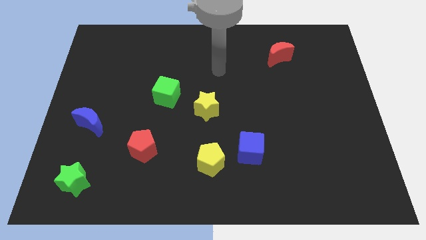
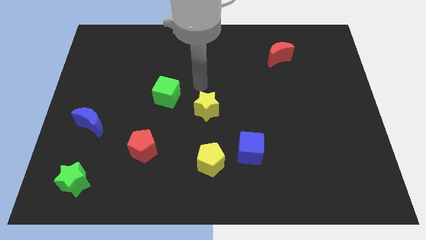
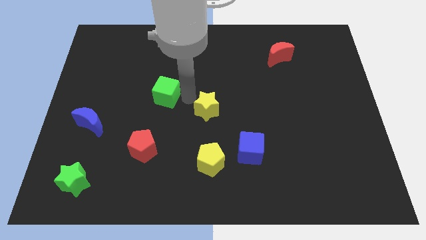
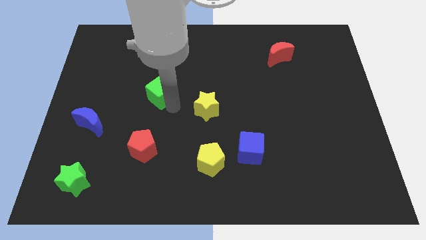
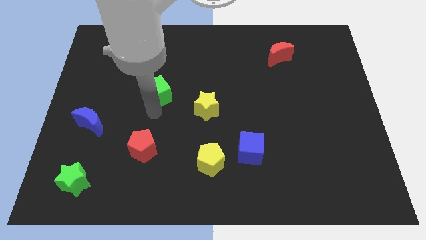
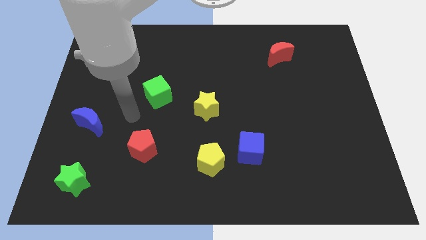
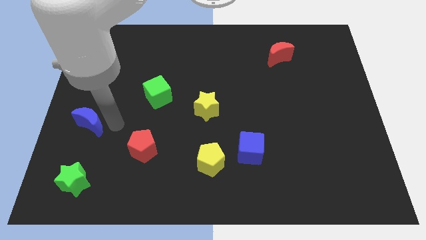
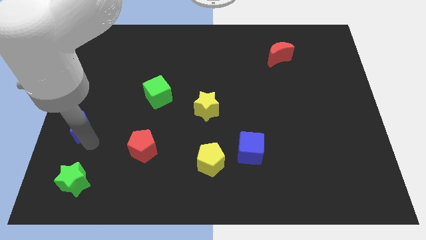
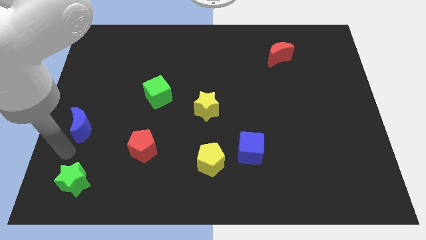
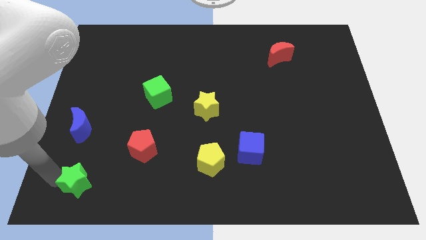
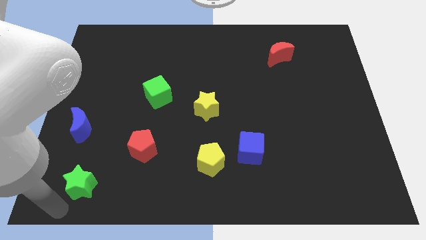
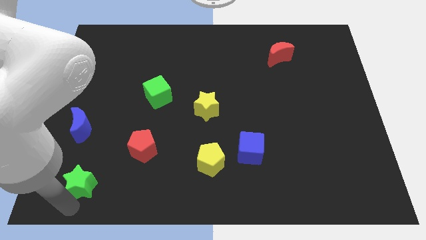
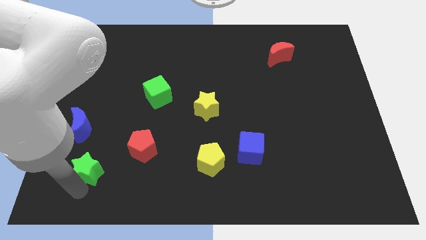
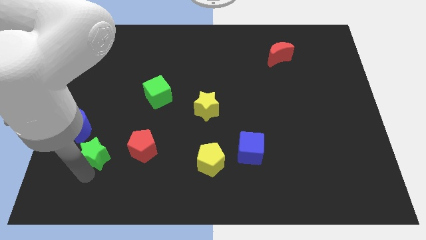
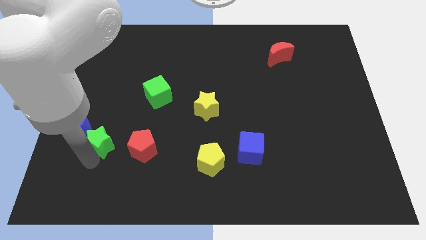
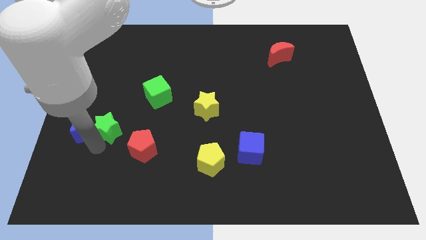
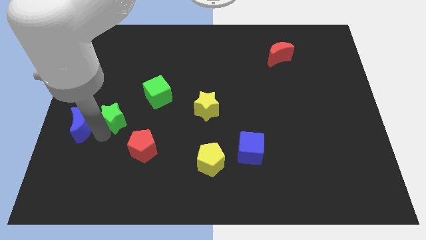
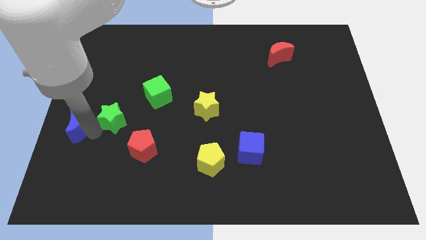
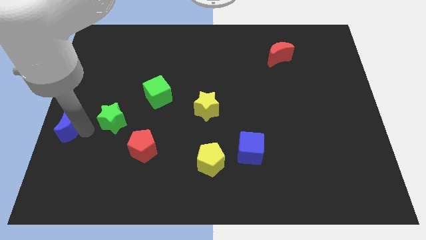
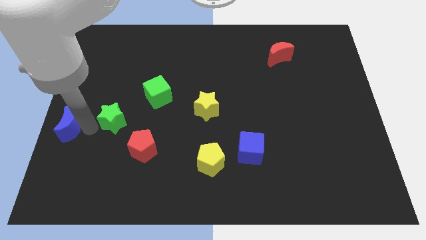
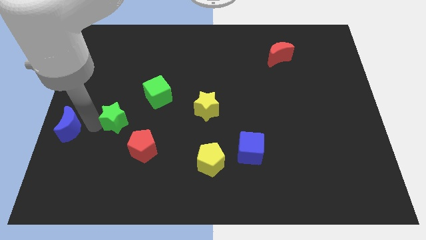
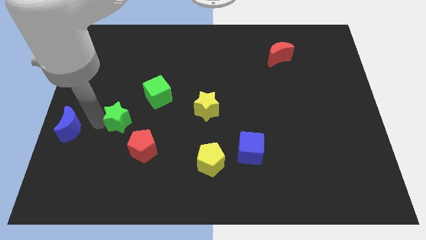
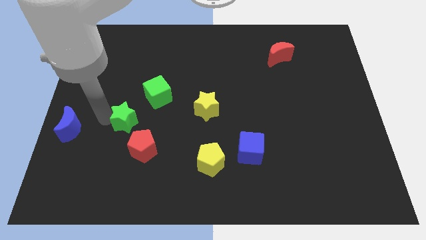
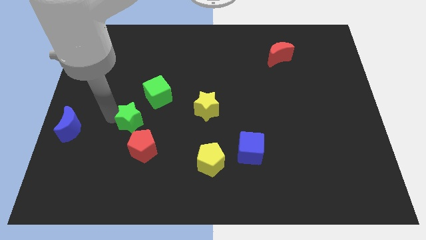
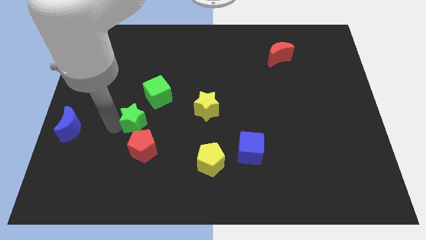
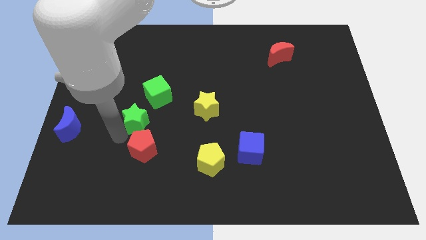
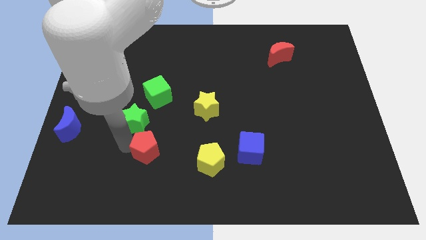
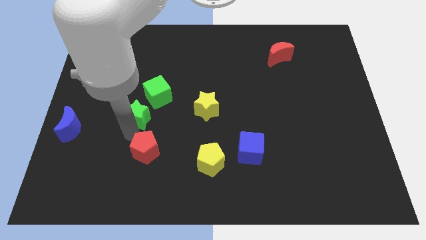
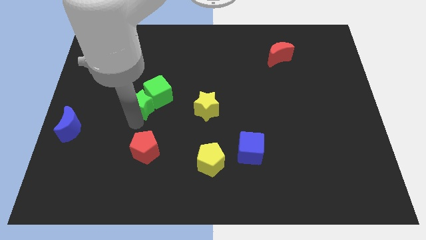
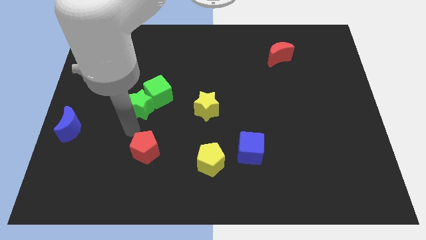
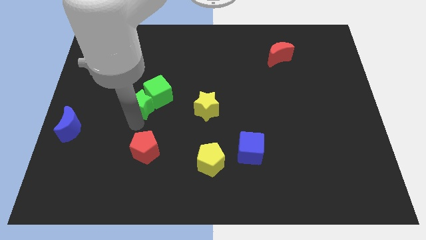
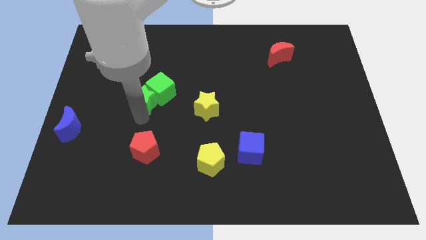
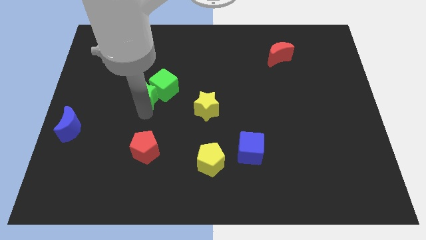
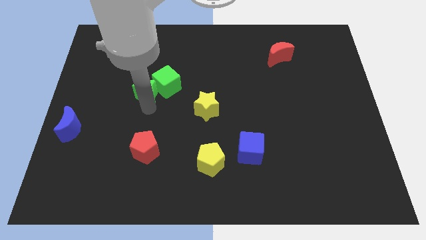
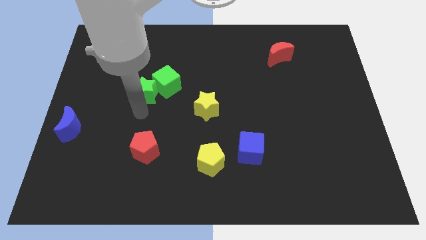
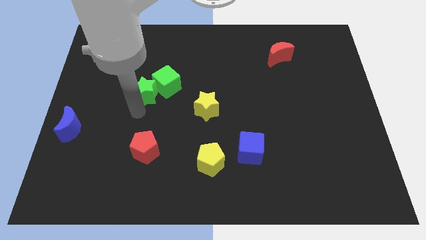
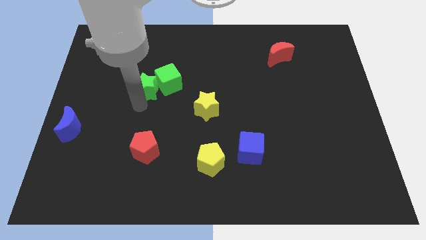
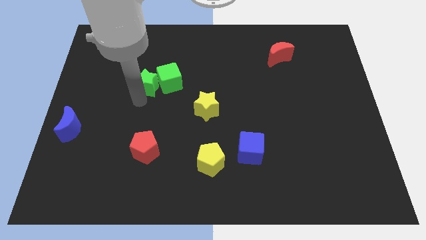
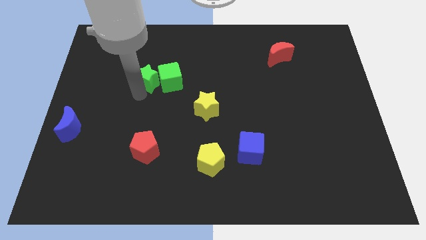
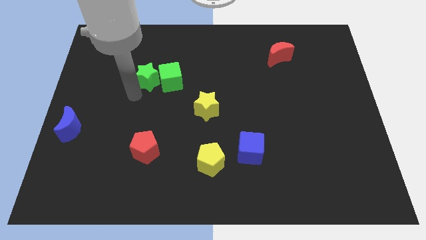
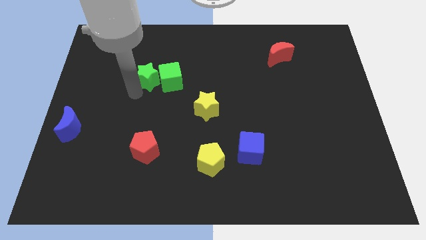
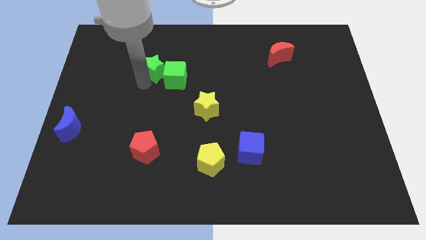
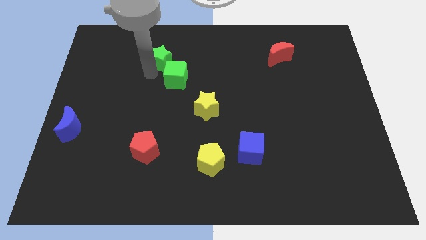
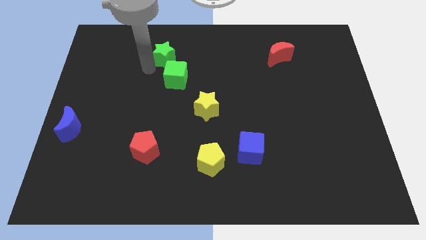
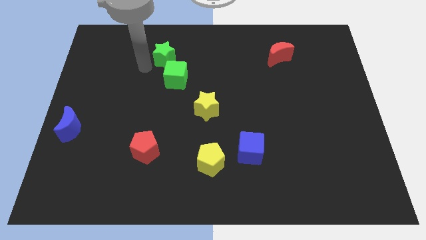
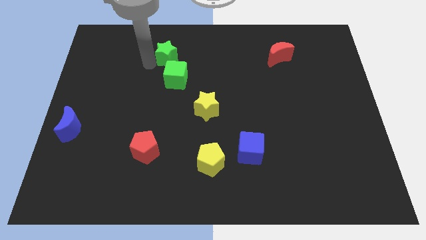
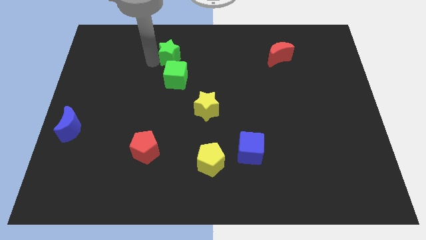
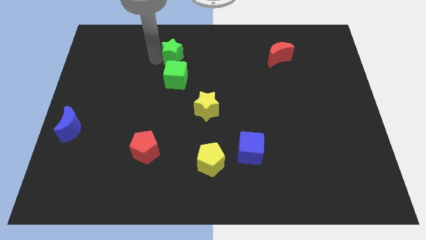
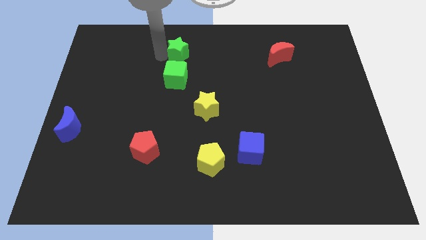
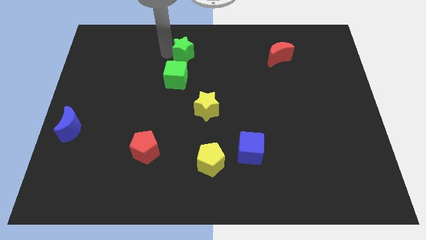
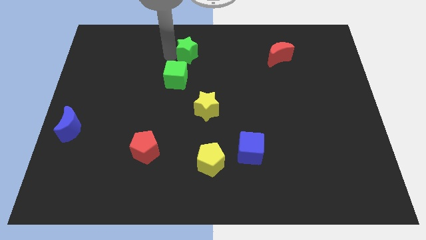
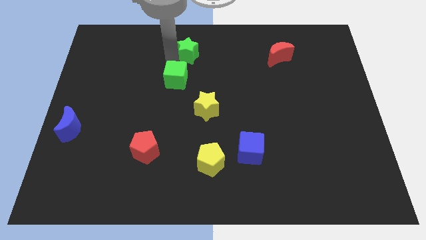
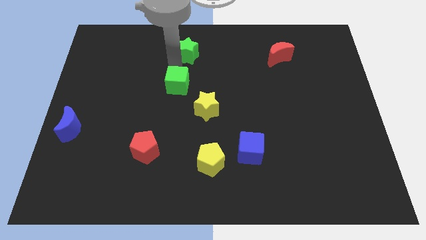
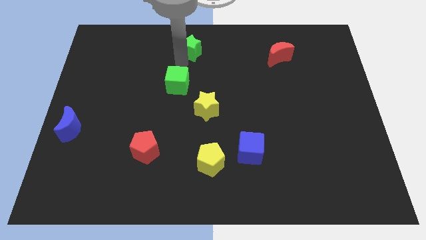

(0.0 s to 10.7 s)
push the green star to the top
